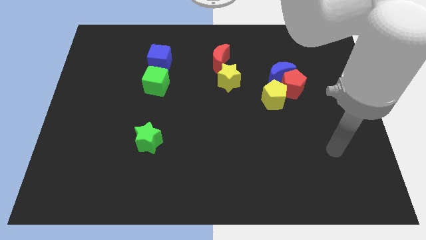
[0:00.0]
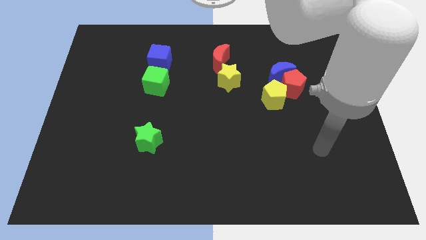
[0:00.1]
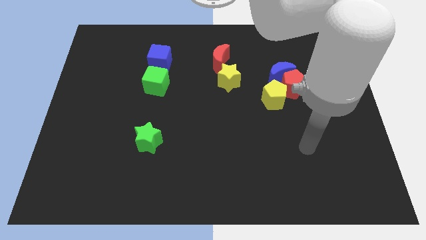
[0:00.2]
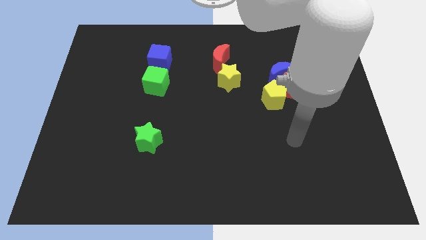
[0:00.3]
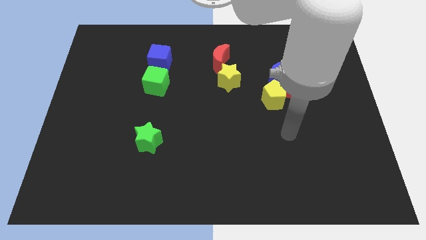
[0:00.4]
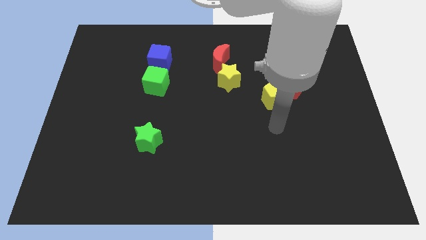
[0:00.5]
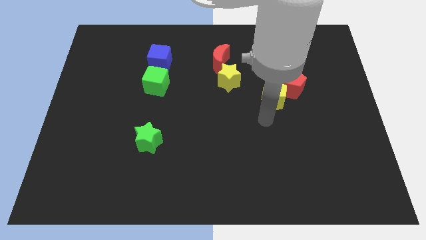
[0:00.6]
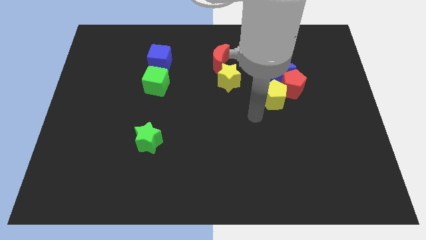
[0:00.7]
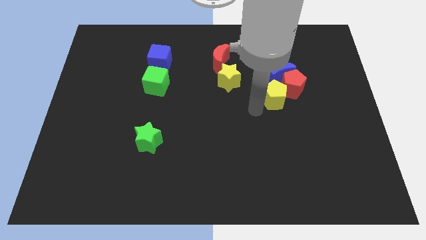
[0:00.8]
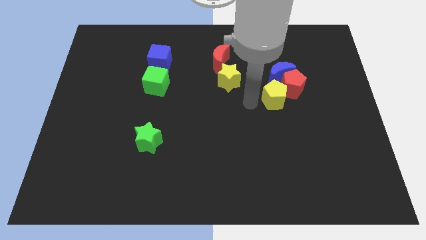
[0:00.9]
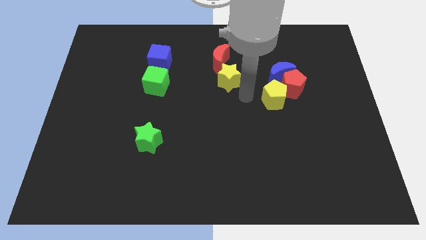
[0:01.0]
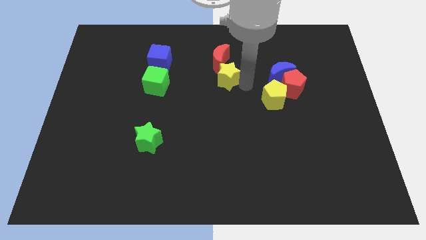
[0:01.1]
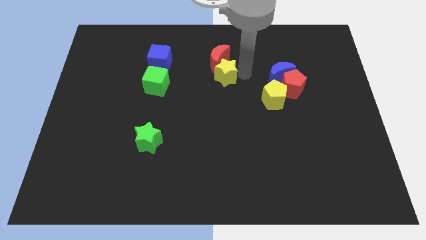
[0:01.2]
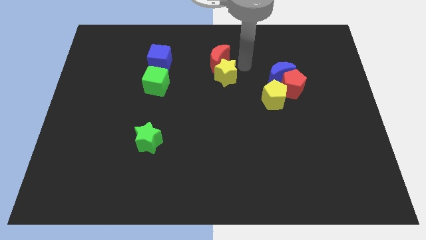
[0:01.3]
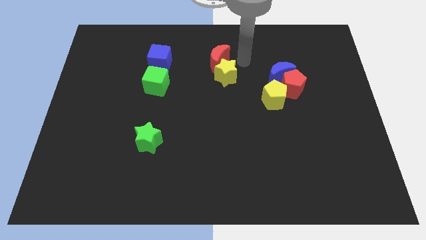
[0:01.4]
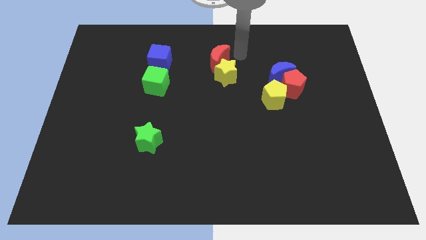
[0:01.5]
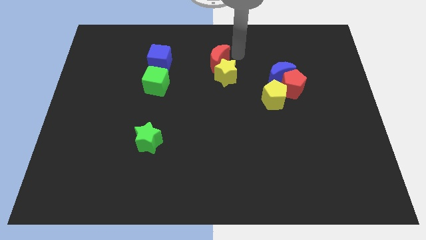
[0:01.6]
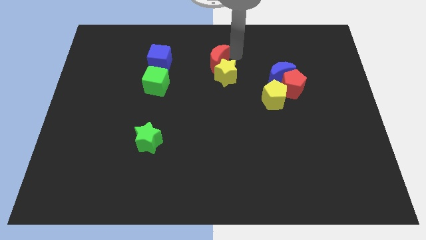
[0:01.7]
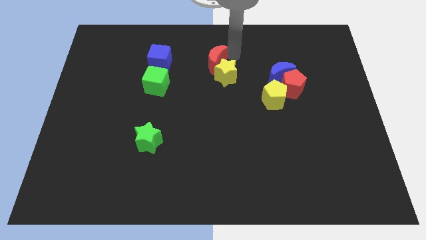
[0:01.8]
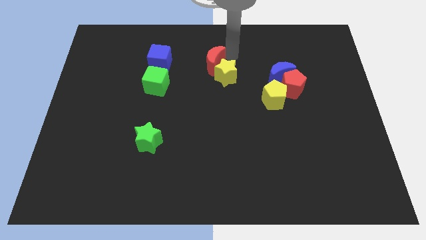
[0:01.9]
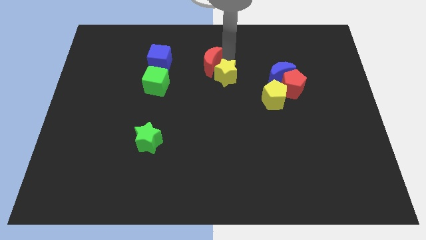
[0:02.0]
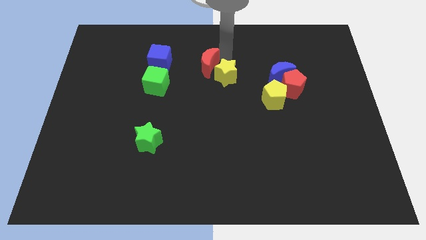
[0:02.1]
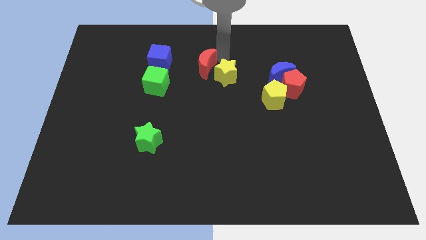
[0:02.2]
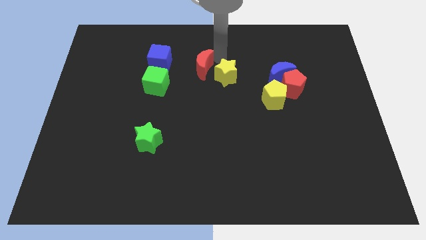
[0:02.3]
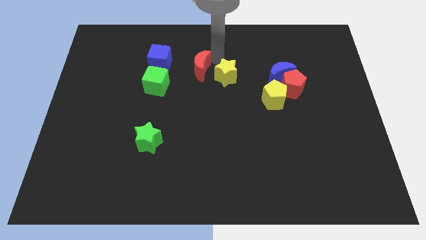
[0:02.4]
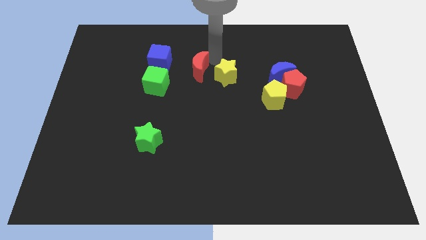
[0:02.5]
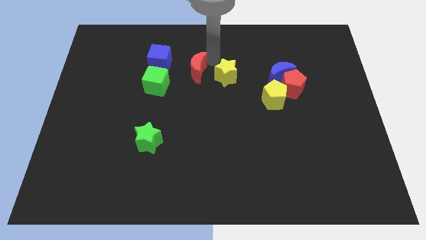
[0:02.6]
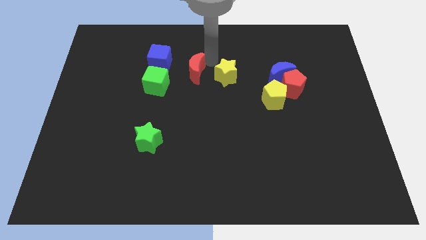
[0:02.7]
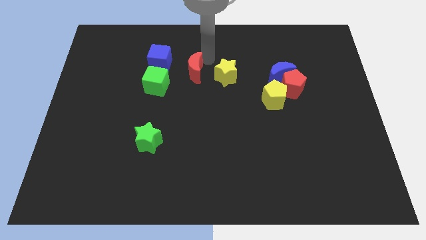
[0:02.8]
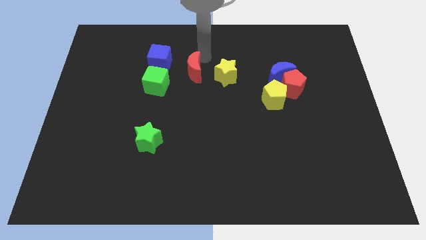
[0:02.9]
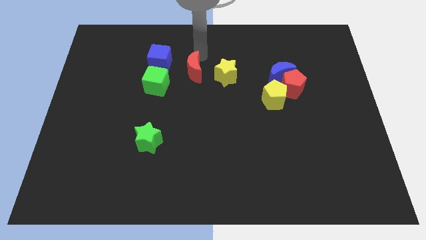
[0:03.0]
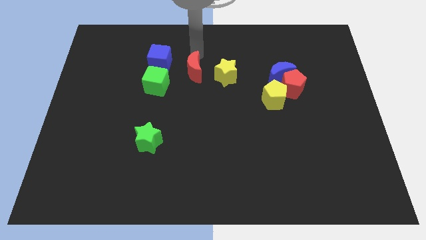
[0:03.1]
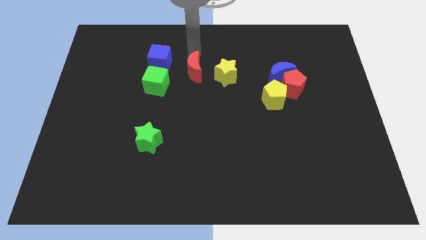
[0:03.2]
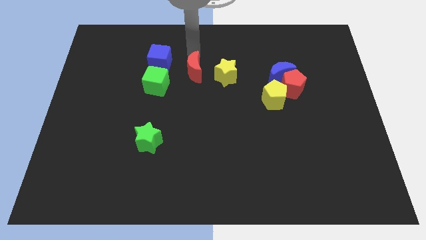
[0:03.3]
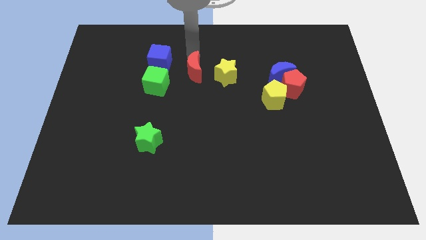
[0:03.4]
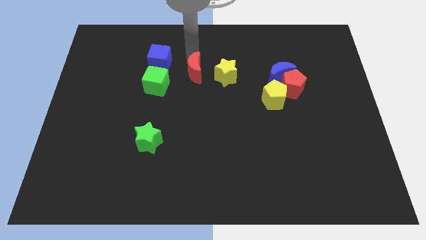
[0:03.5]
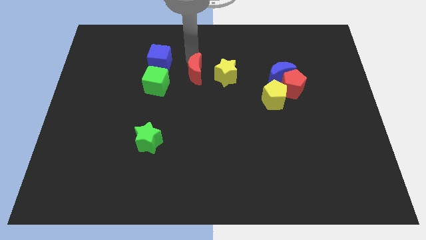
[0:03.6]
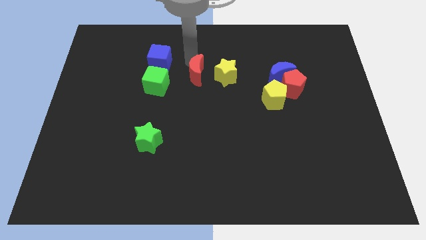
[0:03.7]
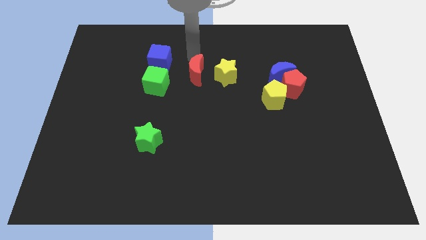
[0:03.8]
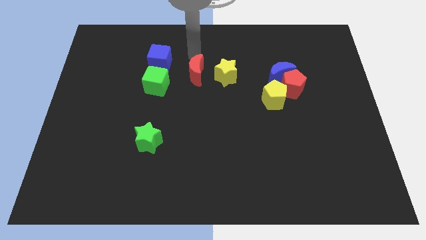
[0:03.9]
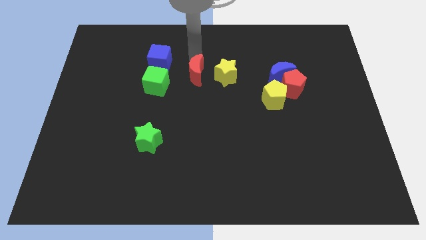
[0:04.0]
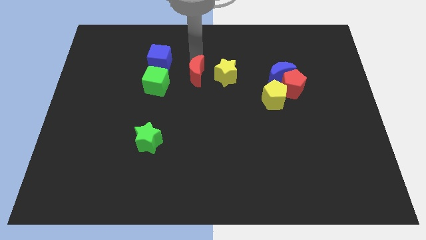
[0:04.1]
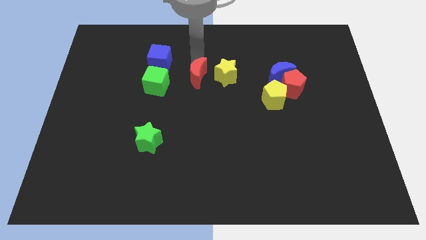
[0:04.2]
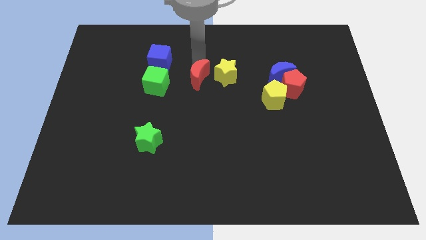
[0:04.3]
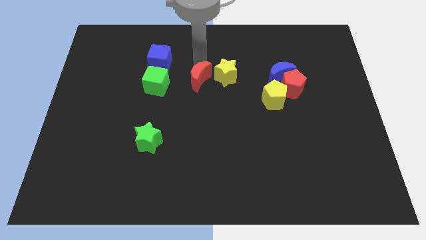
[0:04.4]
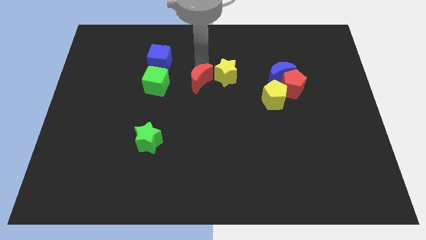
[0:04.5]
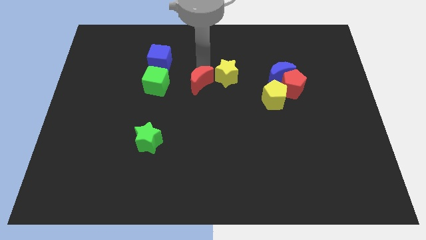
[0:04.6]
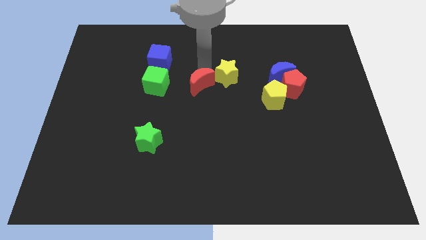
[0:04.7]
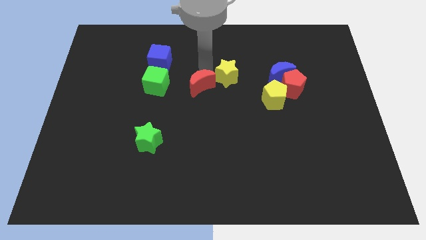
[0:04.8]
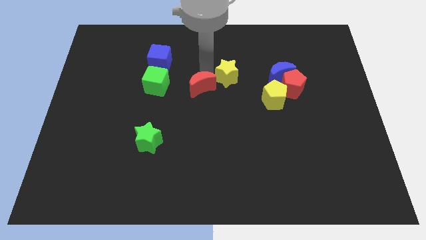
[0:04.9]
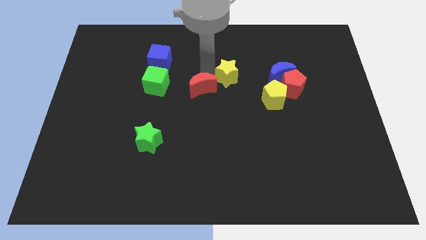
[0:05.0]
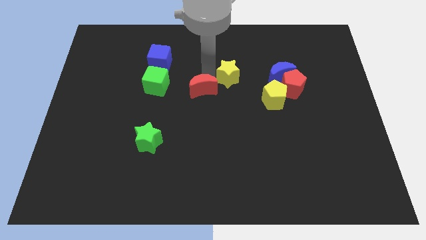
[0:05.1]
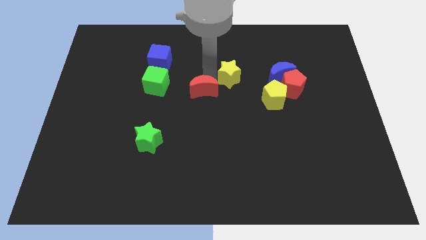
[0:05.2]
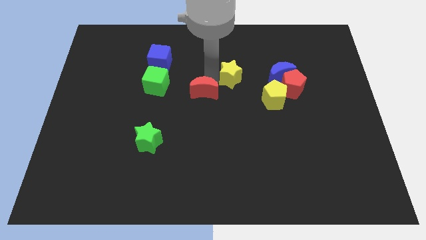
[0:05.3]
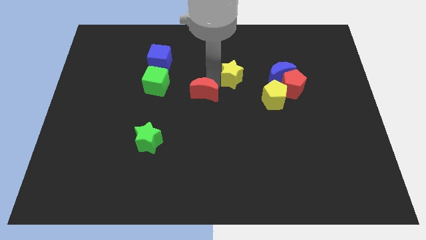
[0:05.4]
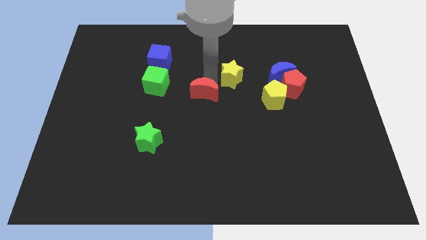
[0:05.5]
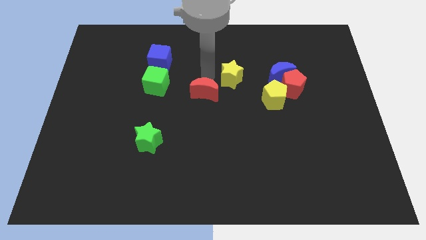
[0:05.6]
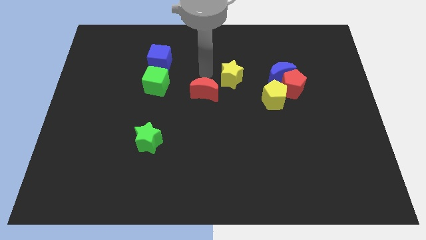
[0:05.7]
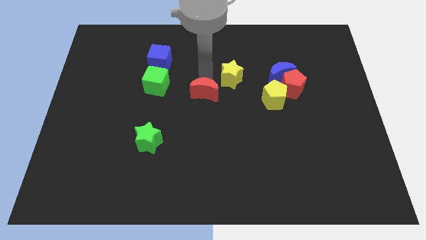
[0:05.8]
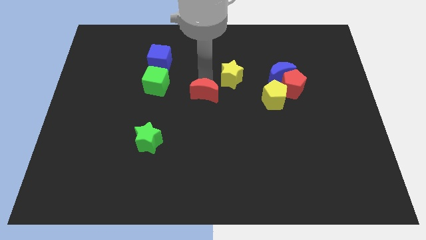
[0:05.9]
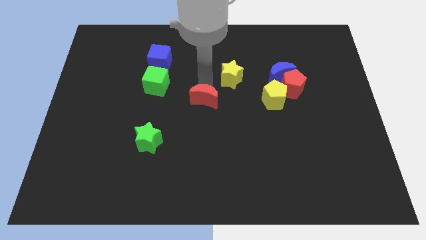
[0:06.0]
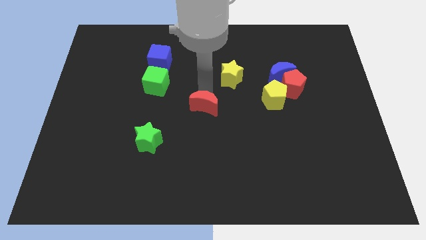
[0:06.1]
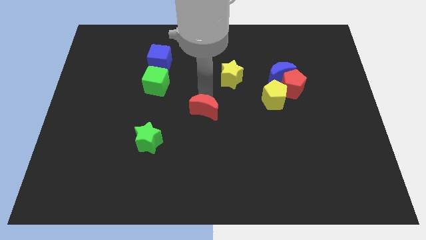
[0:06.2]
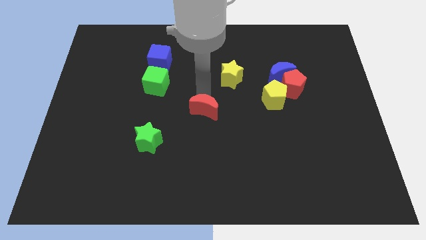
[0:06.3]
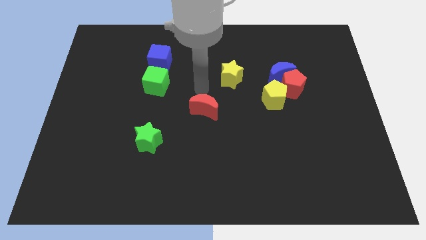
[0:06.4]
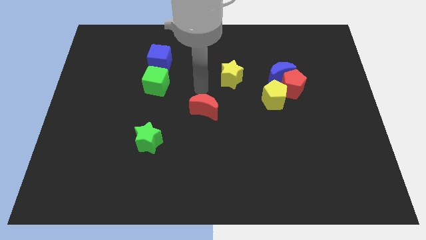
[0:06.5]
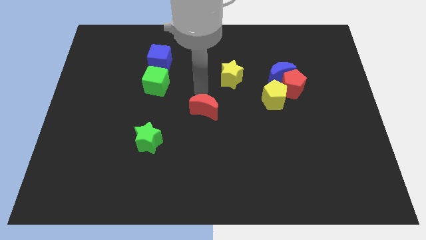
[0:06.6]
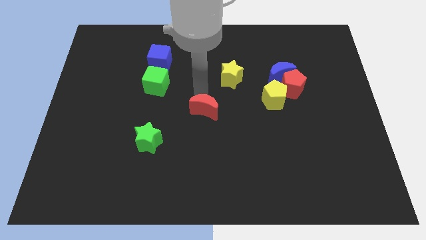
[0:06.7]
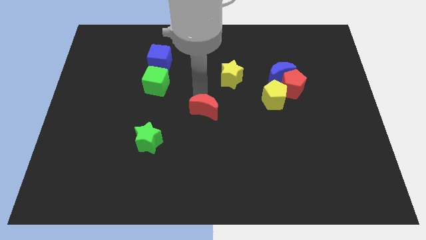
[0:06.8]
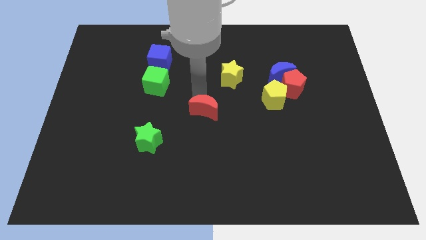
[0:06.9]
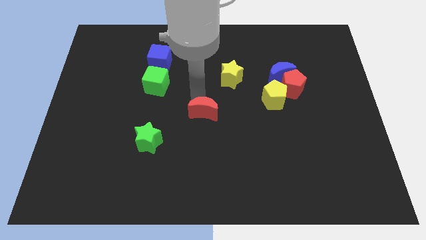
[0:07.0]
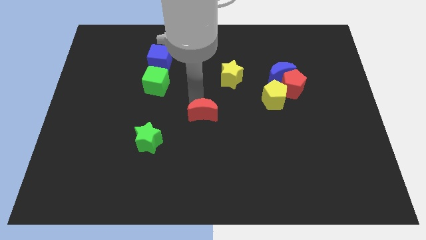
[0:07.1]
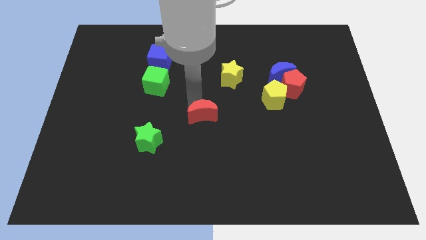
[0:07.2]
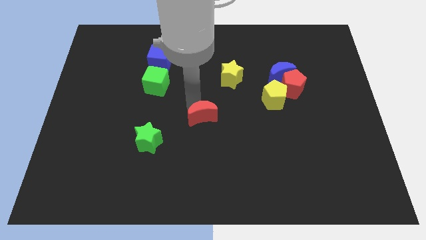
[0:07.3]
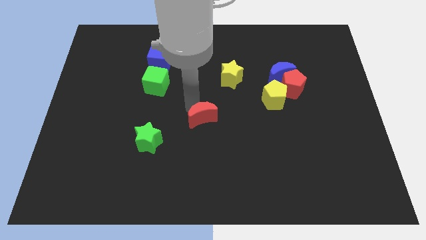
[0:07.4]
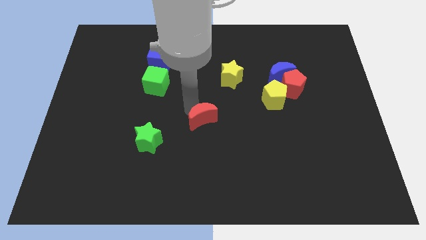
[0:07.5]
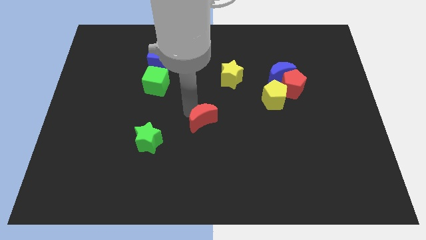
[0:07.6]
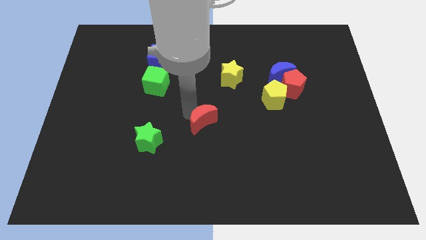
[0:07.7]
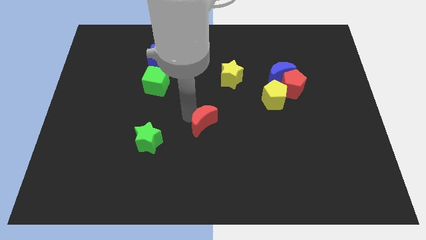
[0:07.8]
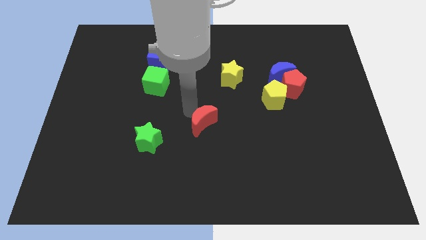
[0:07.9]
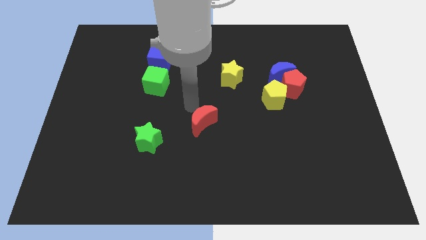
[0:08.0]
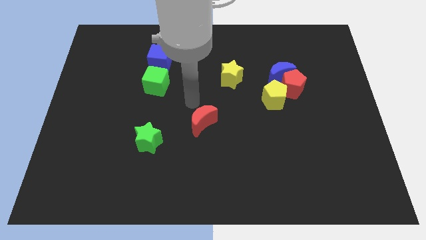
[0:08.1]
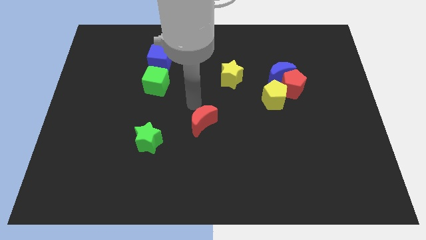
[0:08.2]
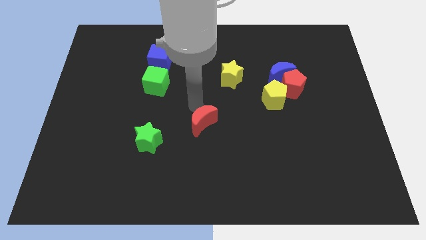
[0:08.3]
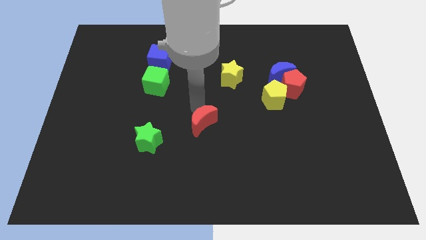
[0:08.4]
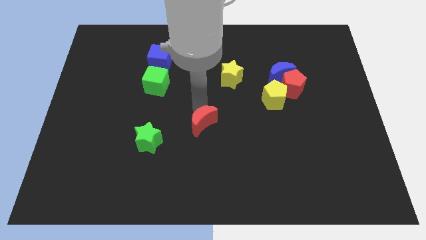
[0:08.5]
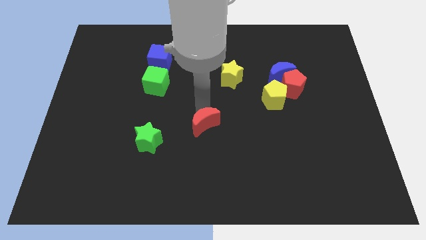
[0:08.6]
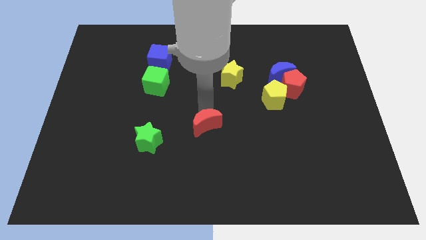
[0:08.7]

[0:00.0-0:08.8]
move the red moon down
